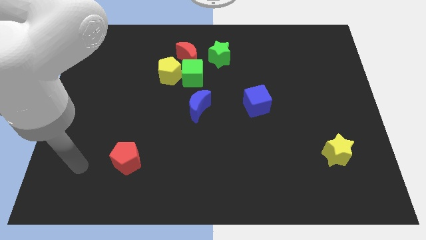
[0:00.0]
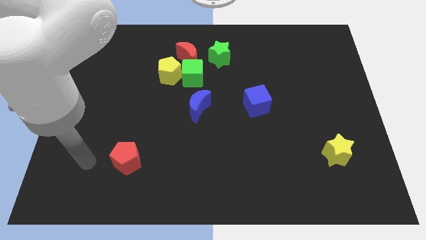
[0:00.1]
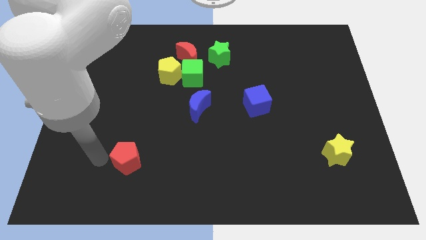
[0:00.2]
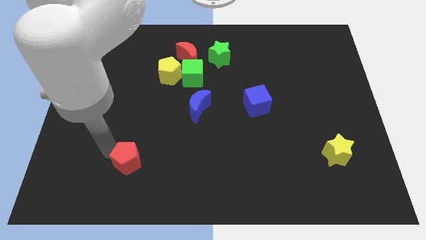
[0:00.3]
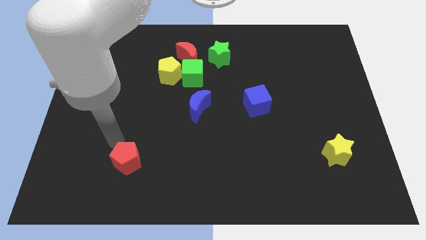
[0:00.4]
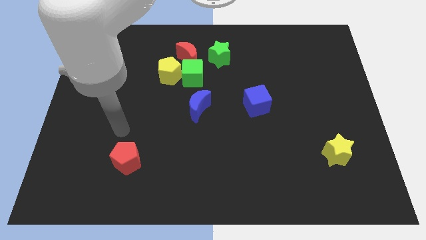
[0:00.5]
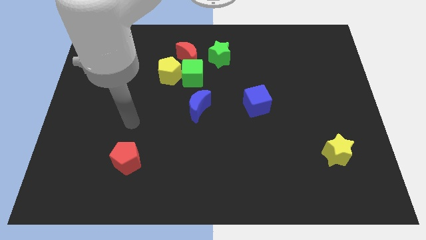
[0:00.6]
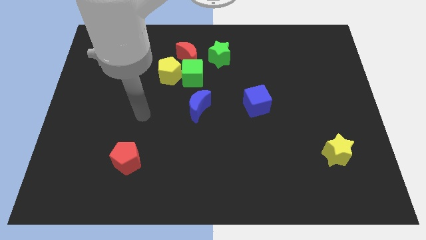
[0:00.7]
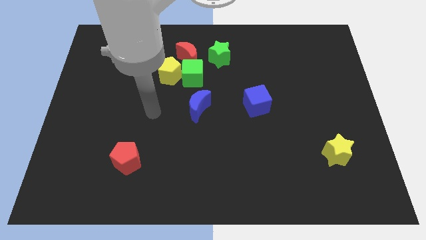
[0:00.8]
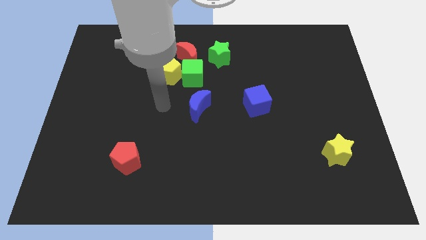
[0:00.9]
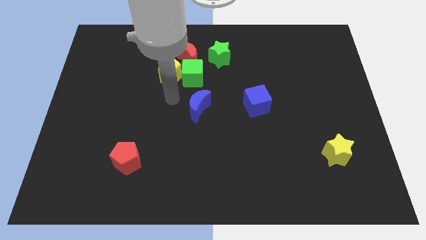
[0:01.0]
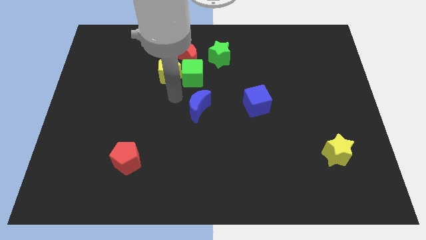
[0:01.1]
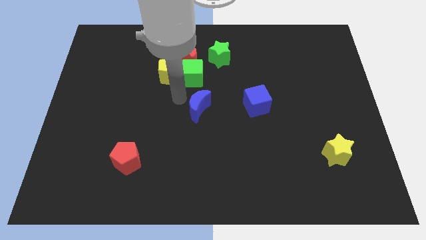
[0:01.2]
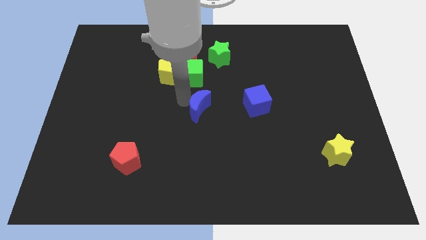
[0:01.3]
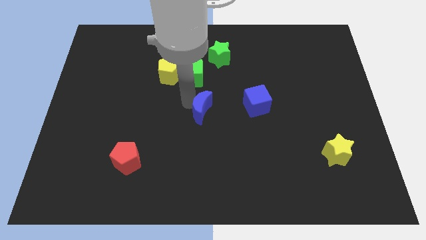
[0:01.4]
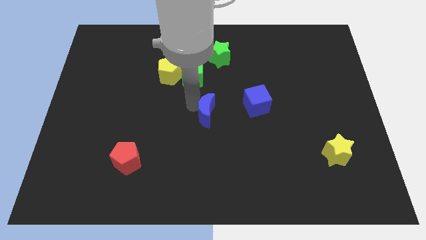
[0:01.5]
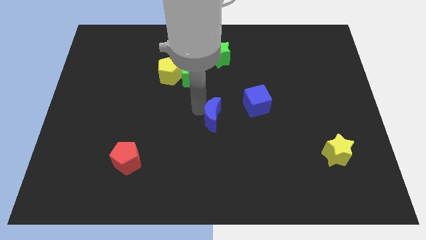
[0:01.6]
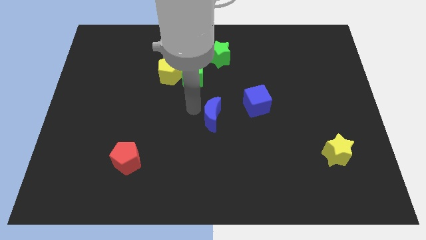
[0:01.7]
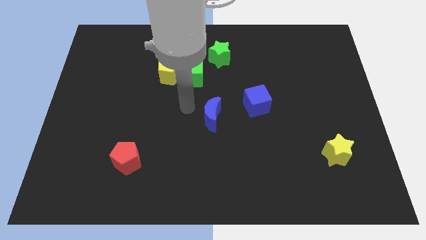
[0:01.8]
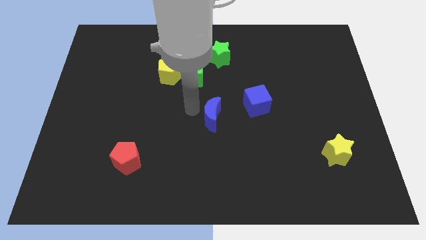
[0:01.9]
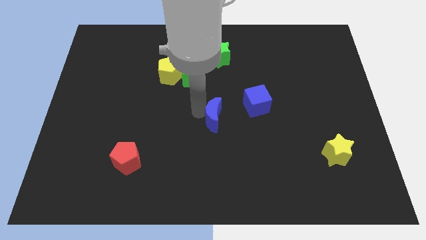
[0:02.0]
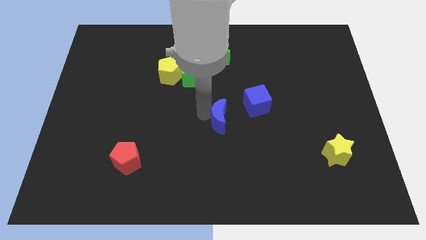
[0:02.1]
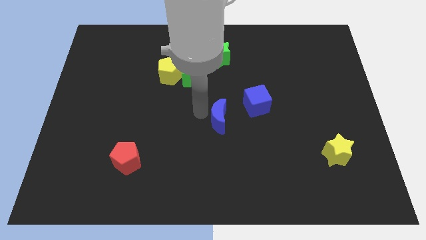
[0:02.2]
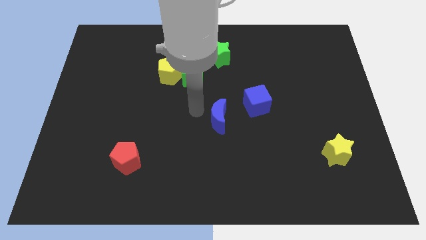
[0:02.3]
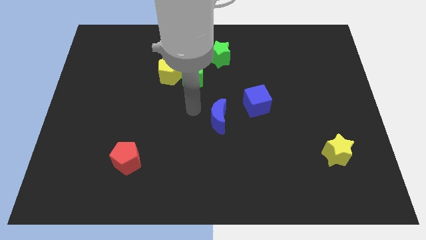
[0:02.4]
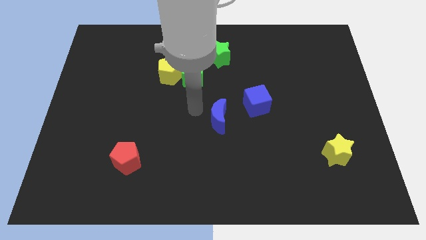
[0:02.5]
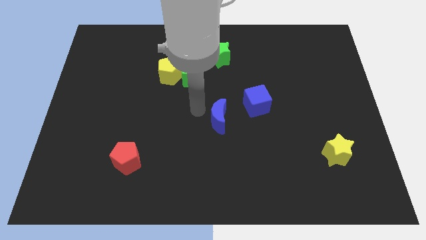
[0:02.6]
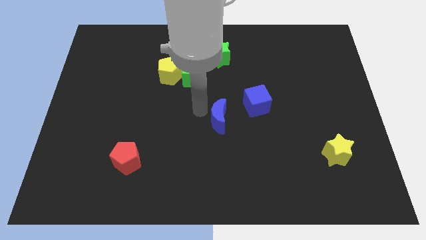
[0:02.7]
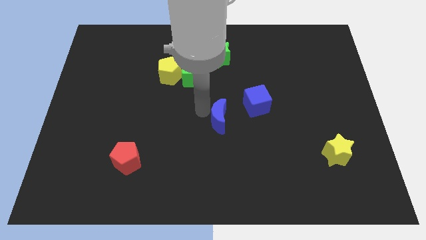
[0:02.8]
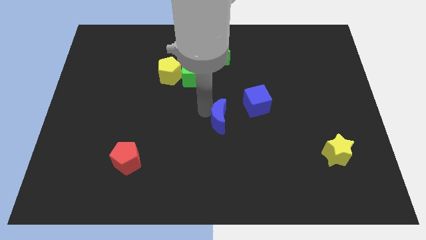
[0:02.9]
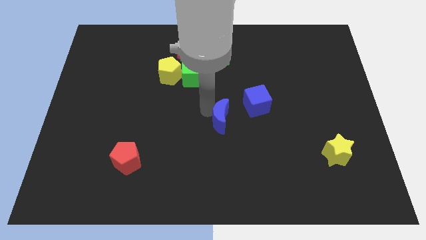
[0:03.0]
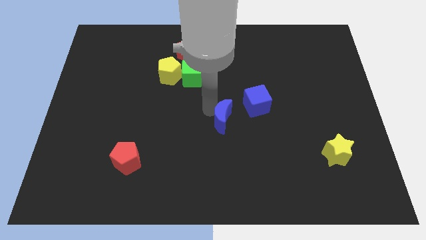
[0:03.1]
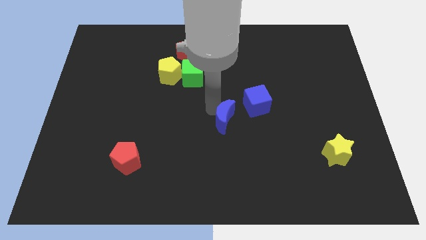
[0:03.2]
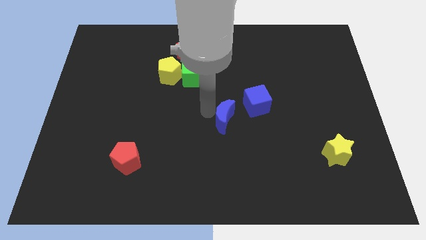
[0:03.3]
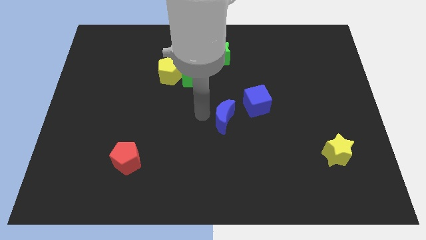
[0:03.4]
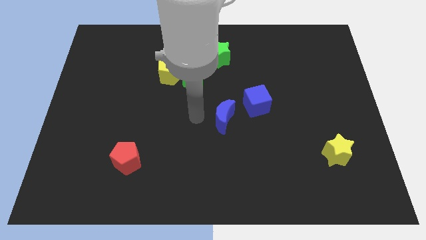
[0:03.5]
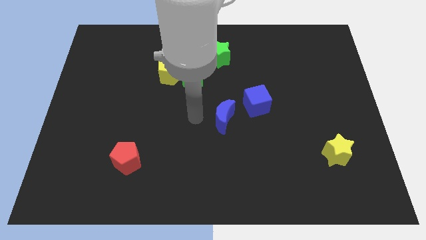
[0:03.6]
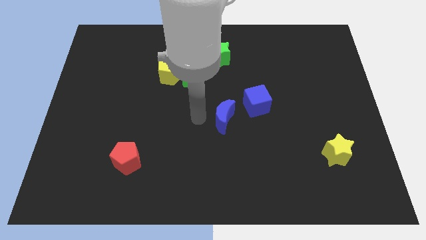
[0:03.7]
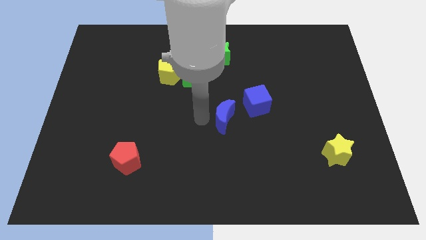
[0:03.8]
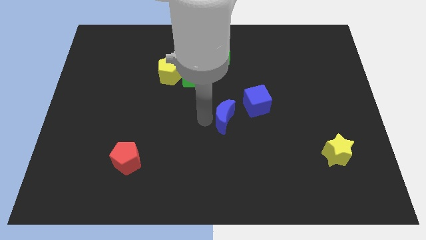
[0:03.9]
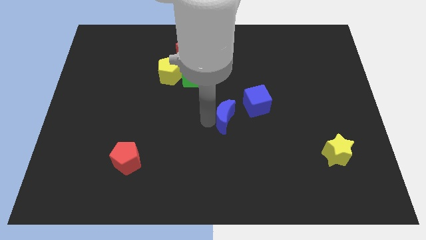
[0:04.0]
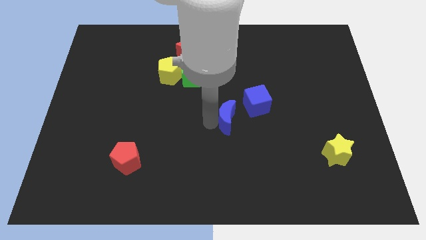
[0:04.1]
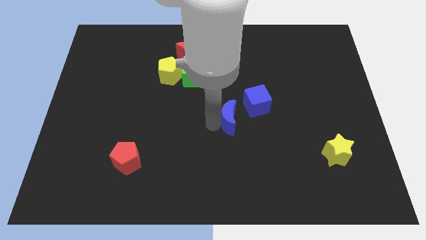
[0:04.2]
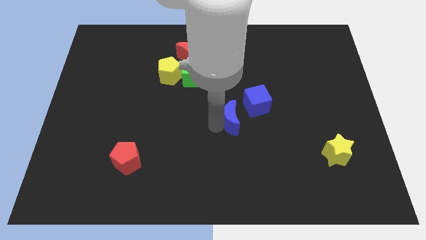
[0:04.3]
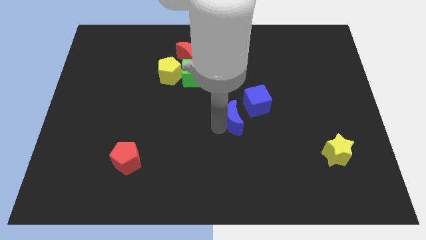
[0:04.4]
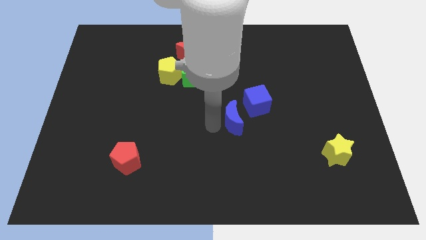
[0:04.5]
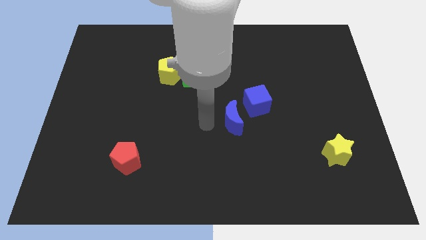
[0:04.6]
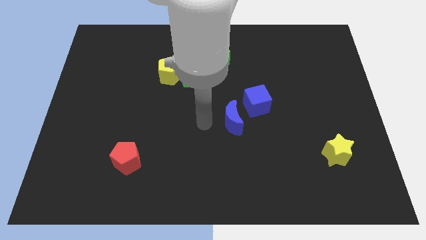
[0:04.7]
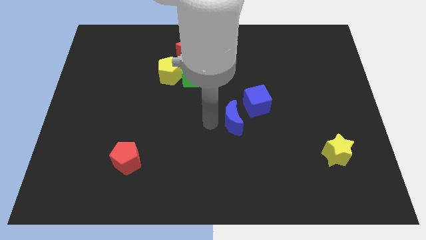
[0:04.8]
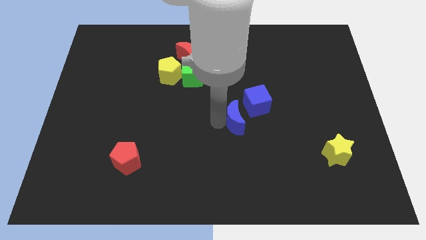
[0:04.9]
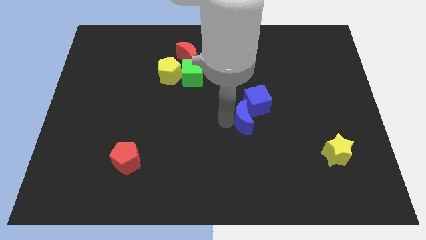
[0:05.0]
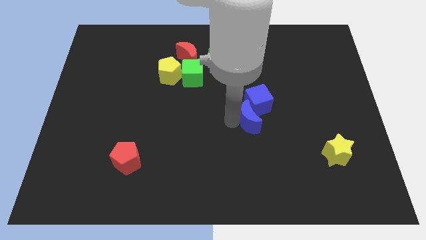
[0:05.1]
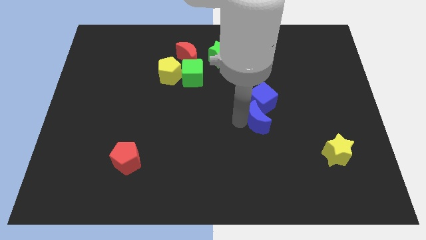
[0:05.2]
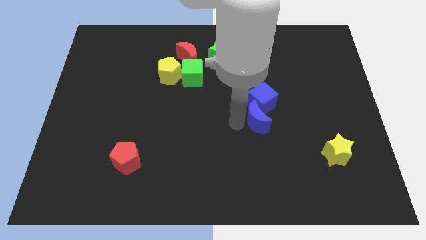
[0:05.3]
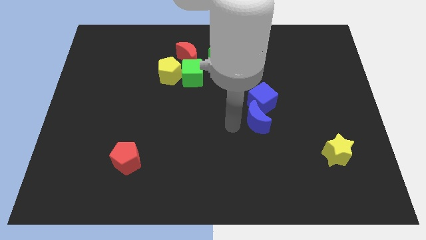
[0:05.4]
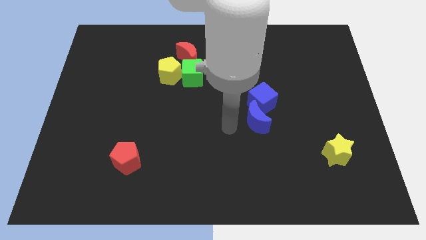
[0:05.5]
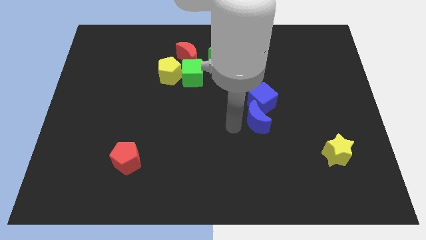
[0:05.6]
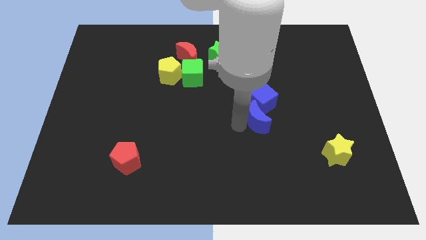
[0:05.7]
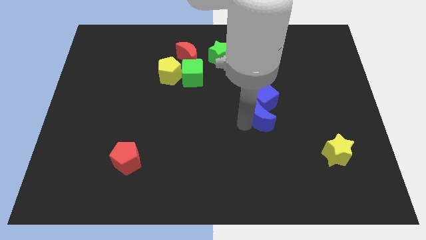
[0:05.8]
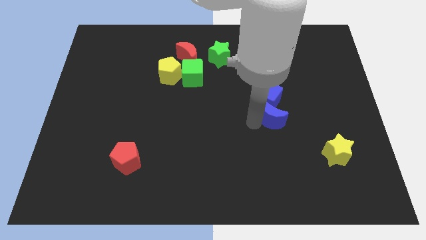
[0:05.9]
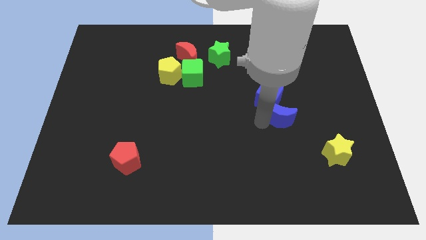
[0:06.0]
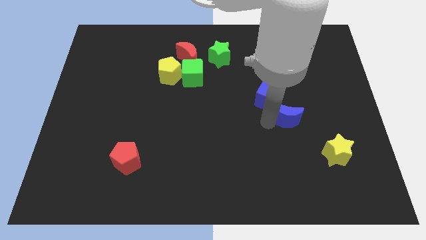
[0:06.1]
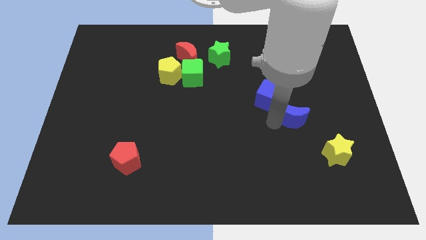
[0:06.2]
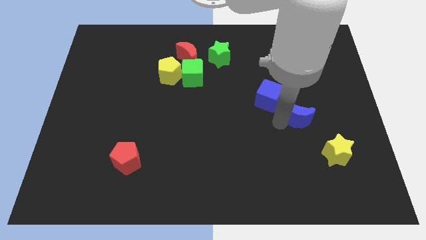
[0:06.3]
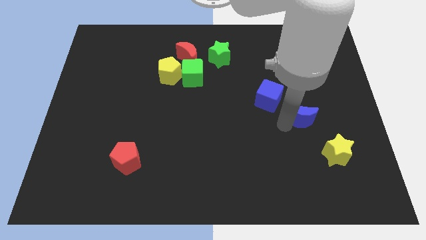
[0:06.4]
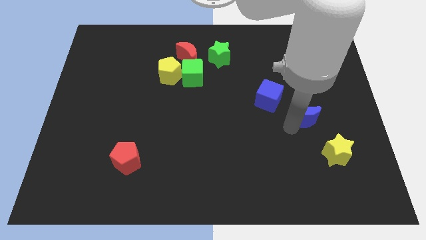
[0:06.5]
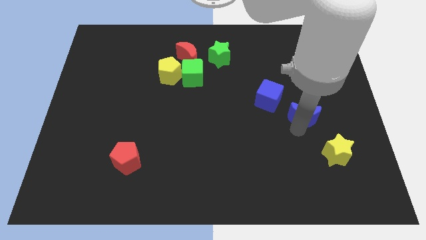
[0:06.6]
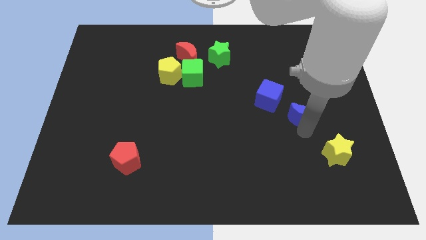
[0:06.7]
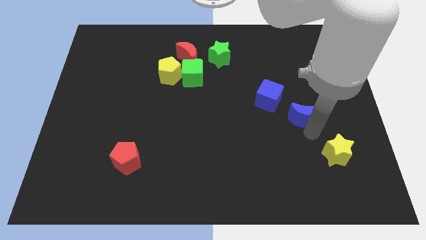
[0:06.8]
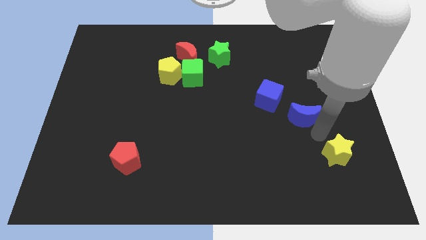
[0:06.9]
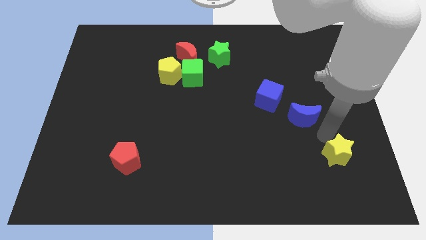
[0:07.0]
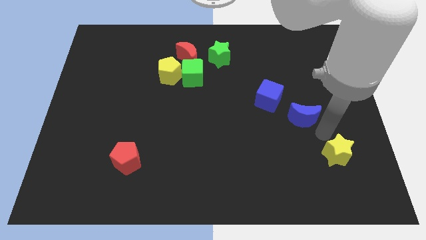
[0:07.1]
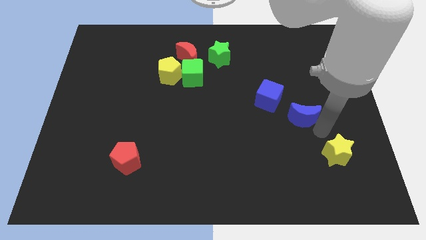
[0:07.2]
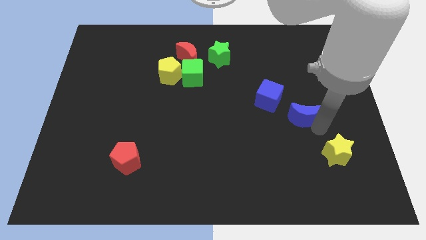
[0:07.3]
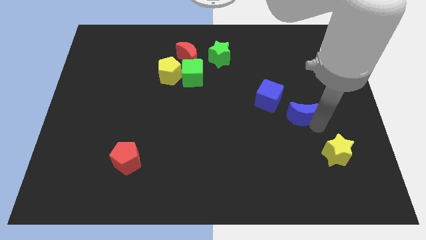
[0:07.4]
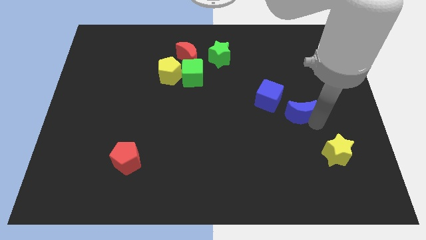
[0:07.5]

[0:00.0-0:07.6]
push the blue moon just right of the blue cube

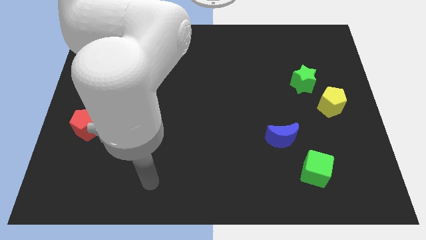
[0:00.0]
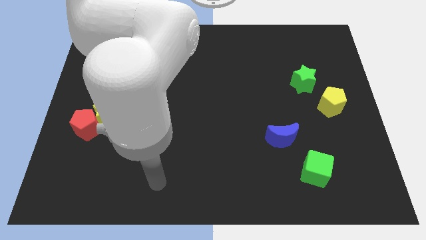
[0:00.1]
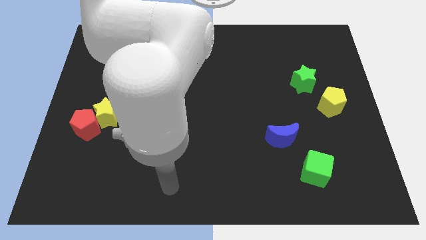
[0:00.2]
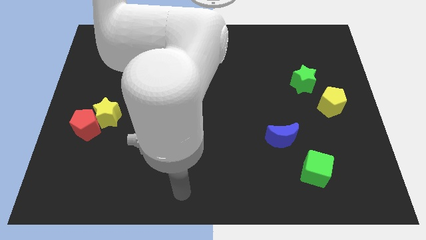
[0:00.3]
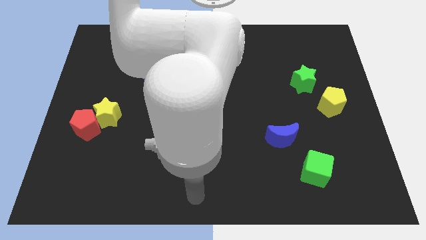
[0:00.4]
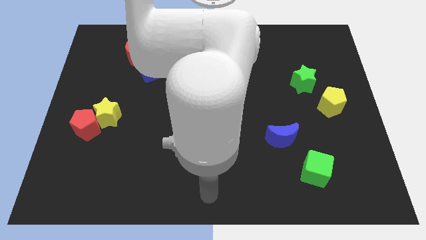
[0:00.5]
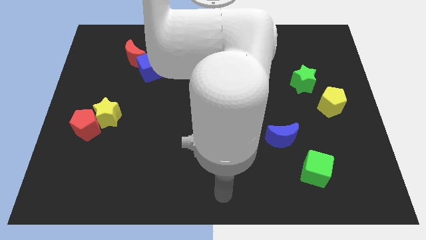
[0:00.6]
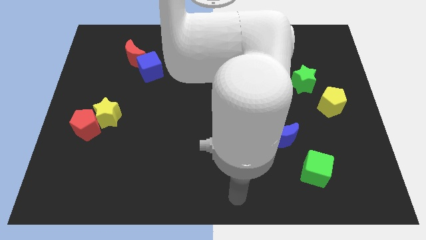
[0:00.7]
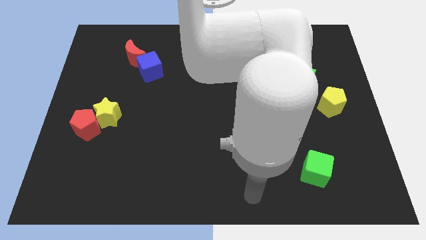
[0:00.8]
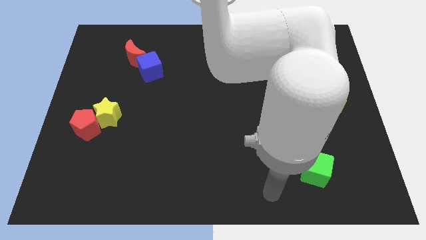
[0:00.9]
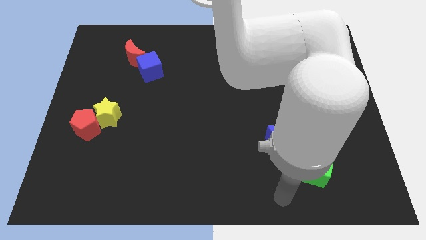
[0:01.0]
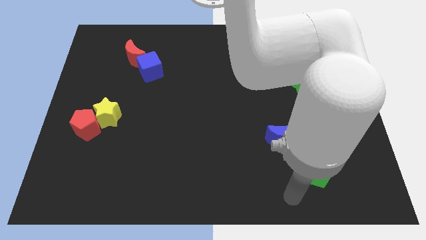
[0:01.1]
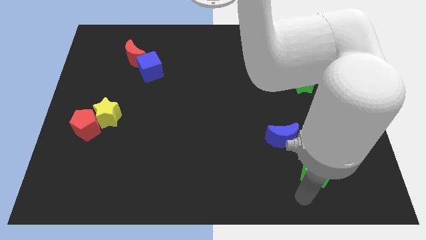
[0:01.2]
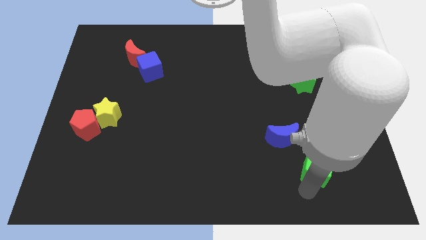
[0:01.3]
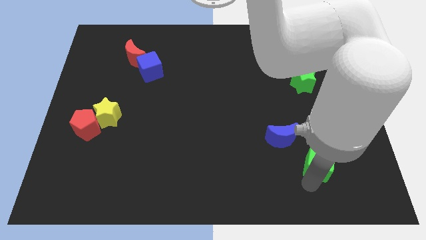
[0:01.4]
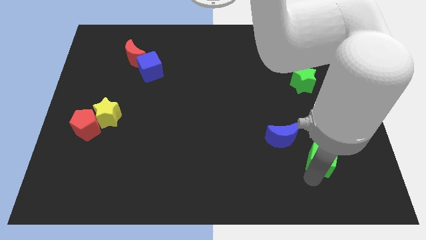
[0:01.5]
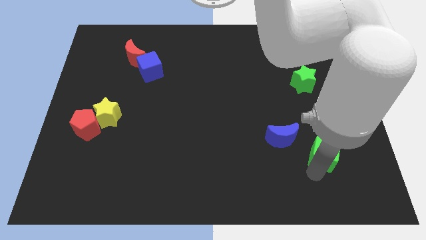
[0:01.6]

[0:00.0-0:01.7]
push the green cube below the yellow pentagon
